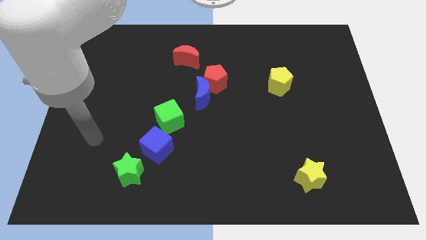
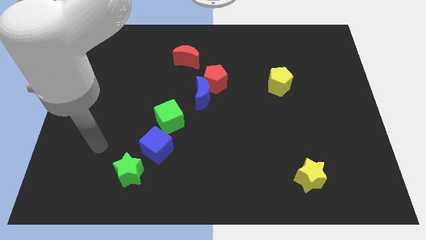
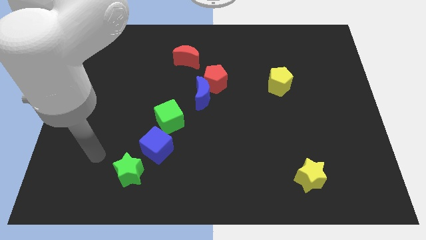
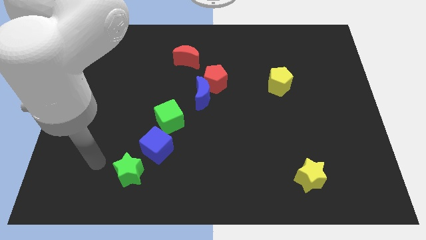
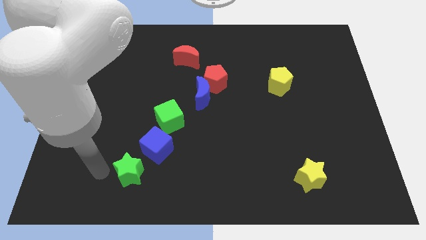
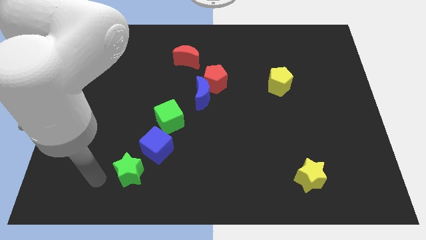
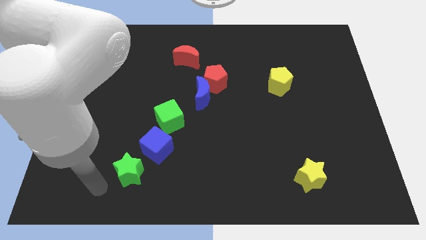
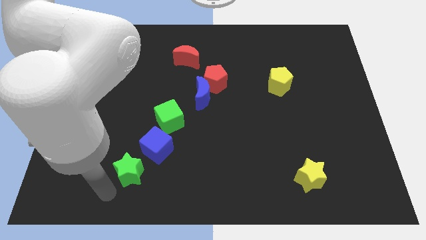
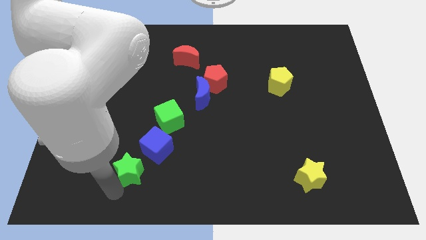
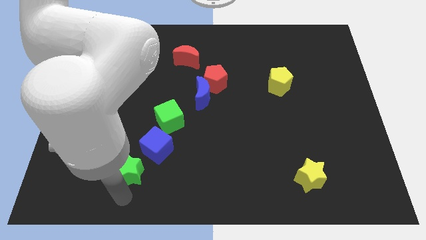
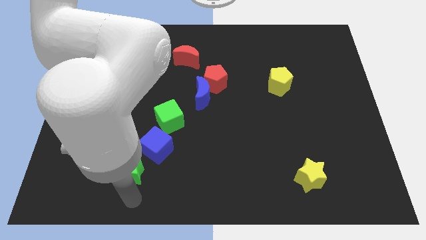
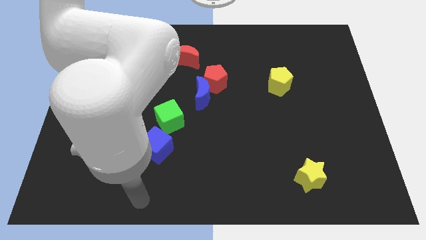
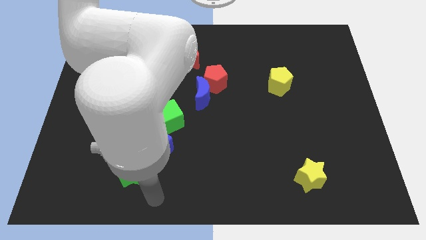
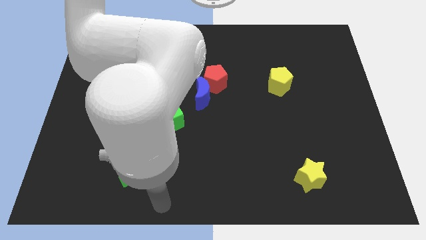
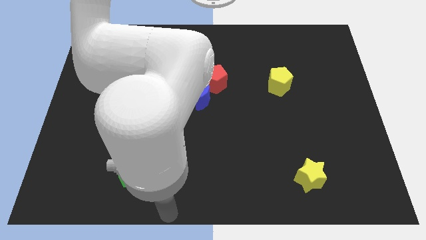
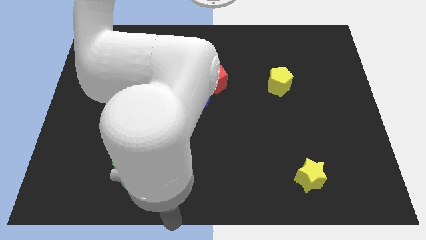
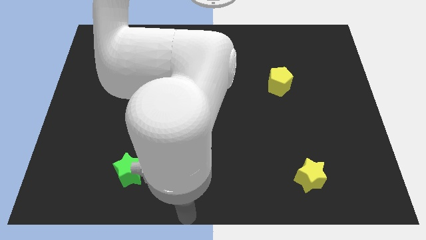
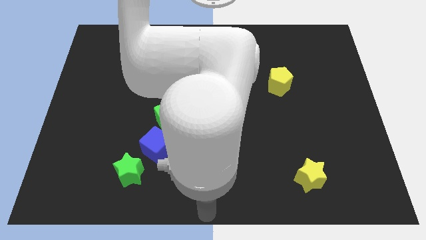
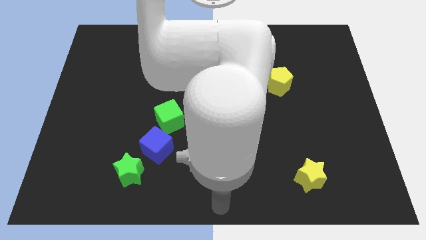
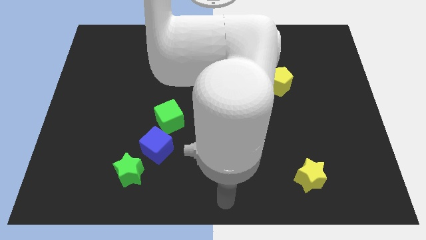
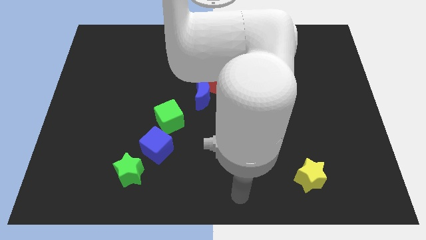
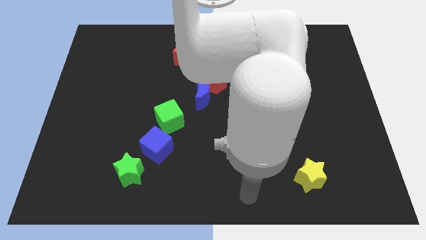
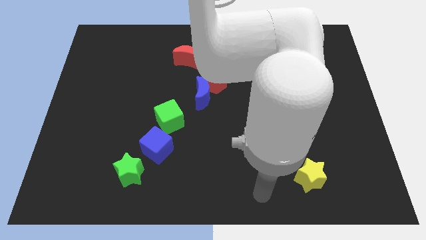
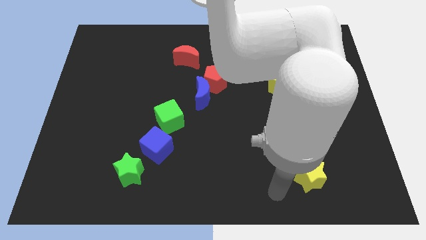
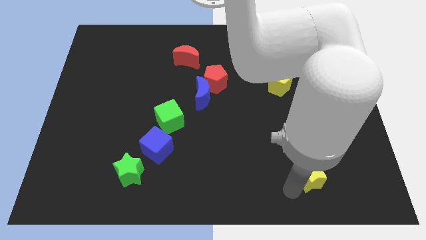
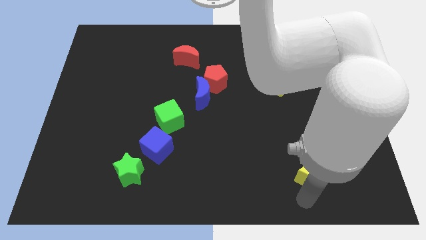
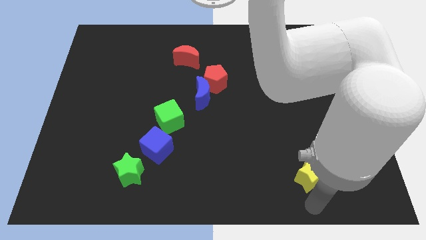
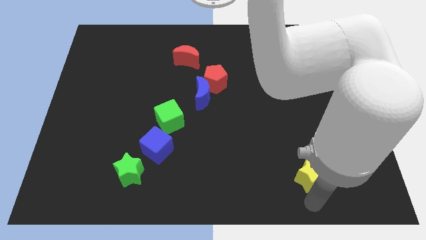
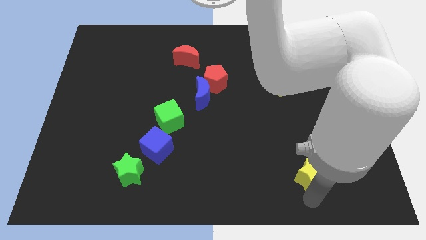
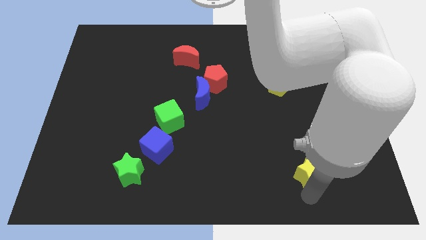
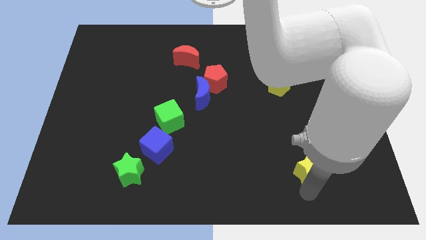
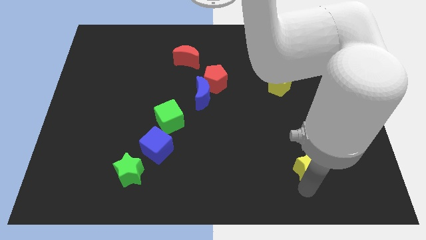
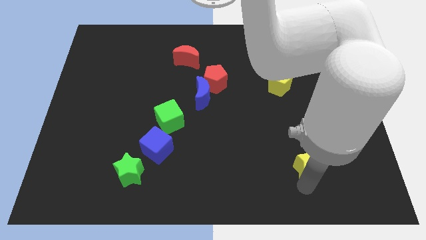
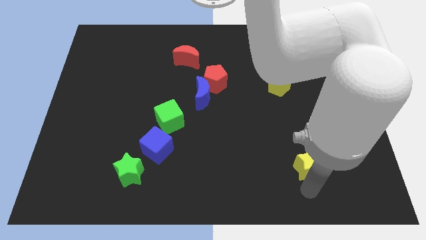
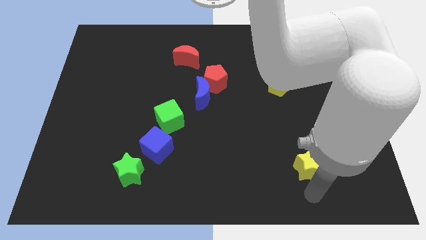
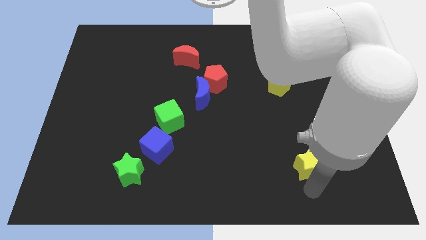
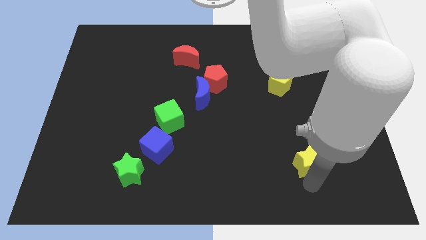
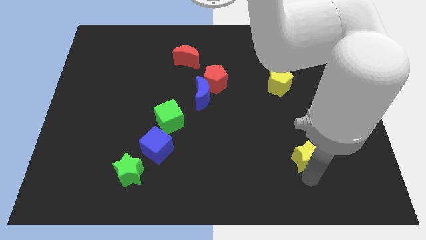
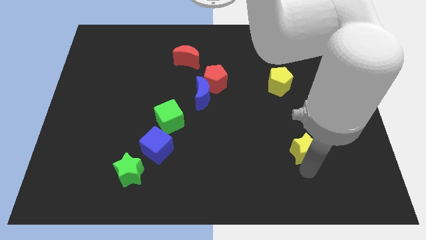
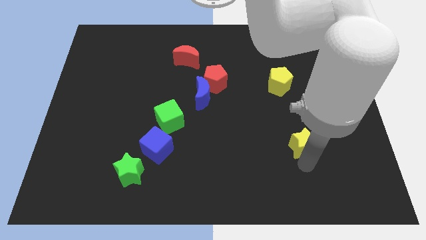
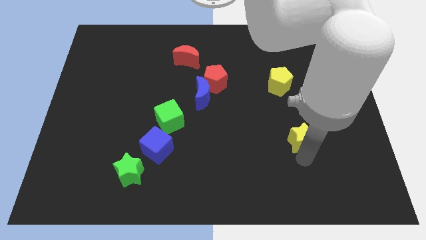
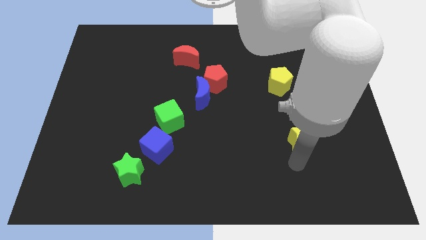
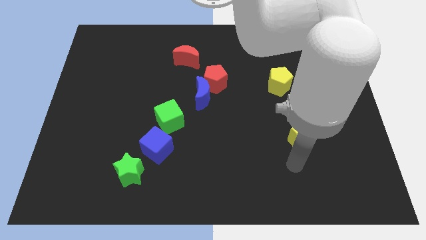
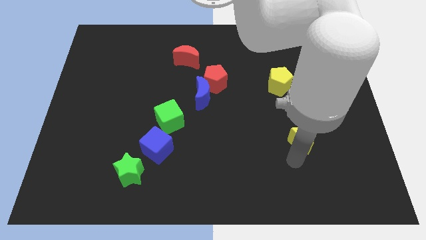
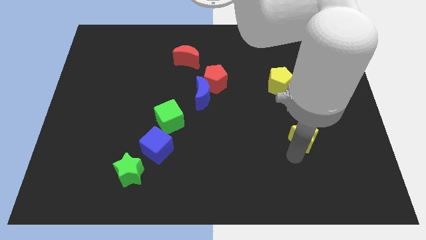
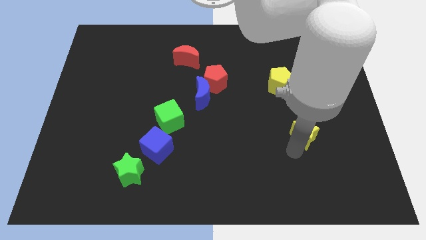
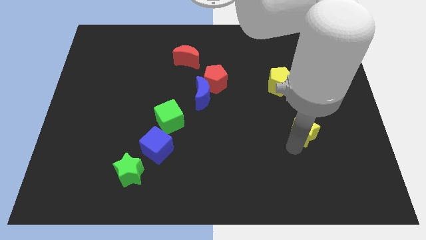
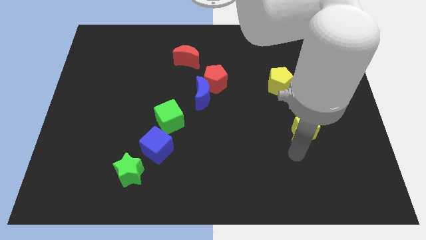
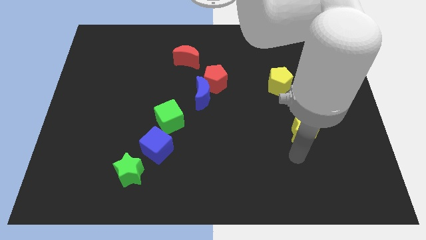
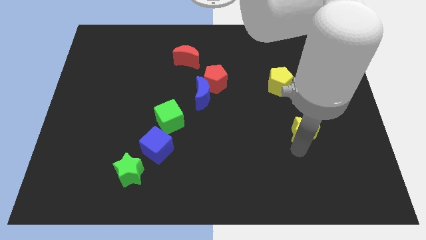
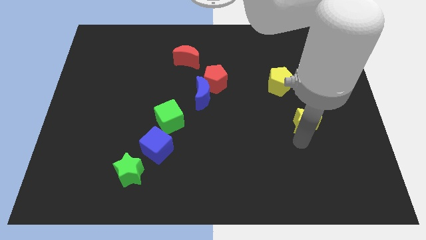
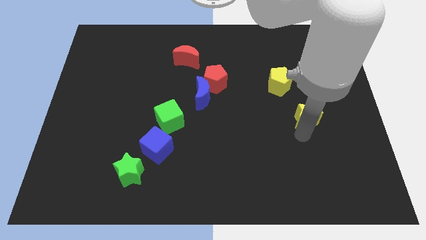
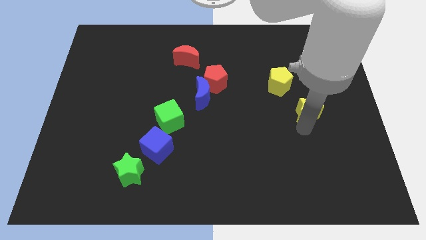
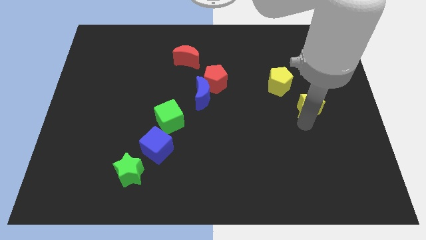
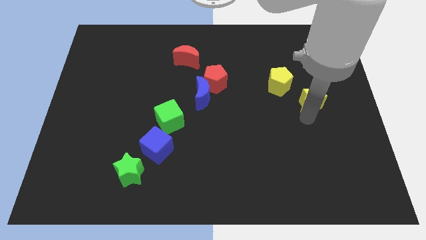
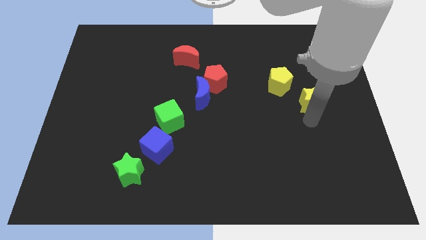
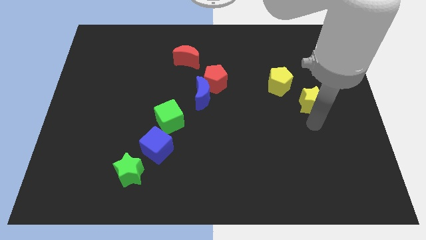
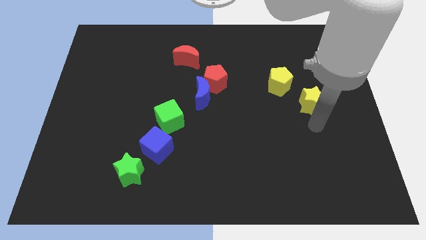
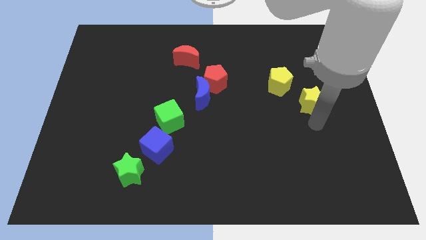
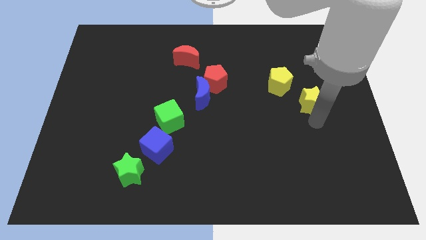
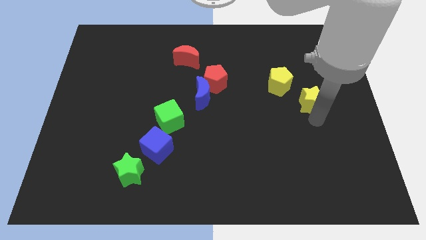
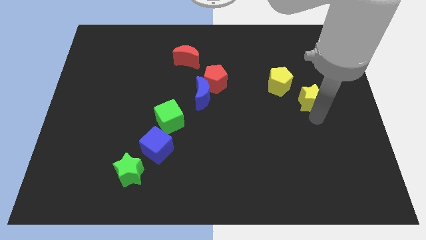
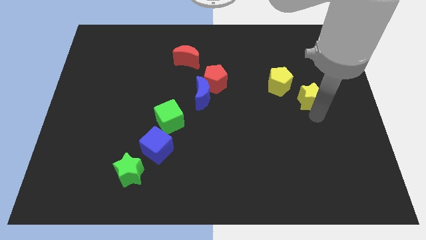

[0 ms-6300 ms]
slide the yellow star upwards

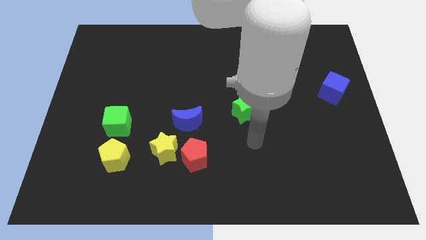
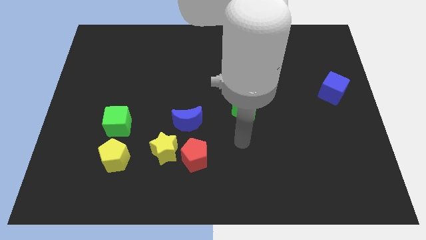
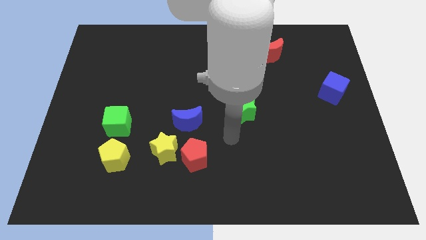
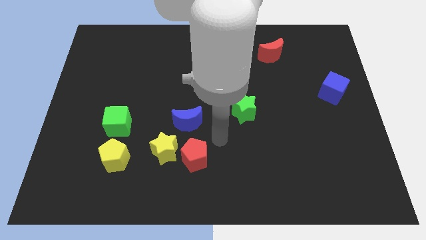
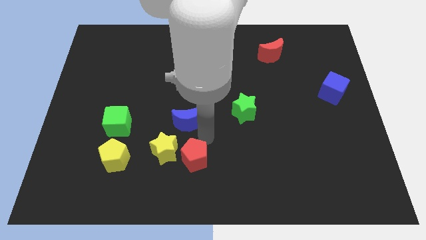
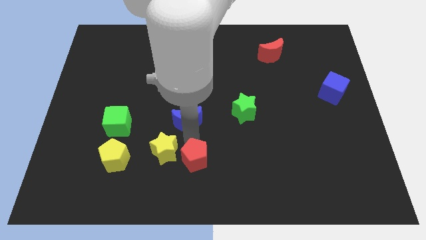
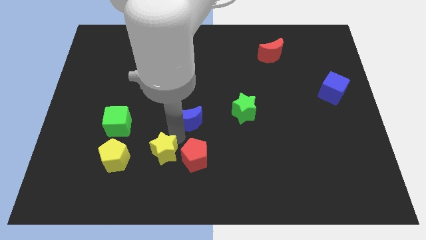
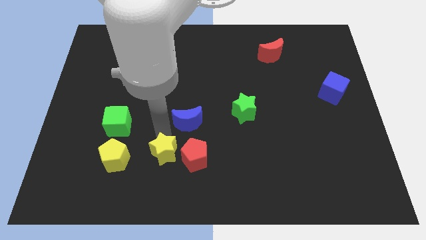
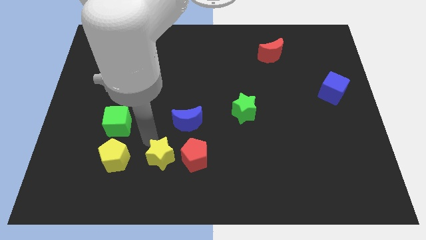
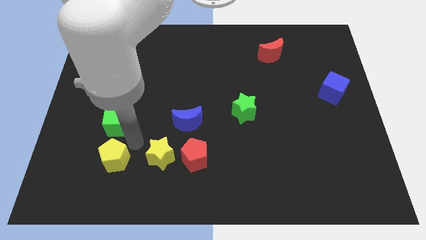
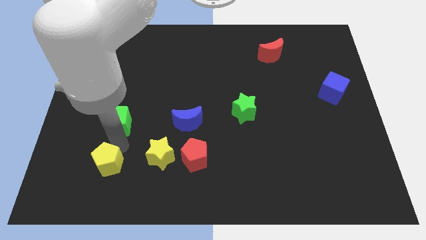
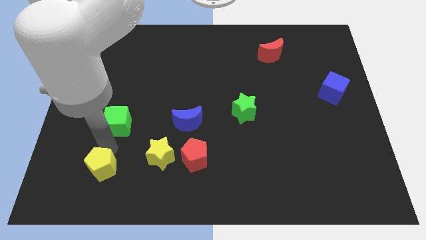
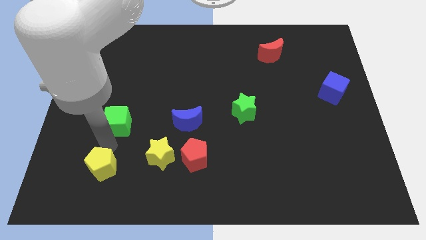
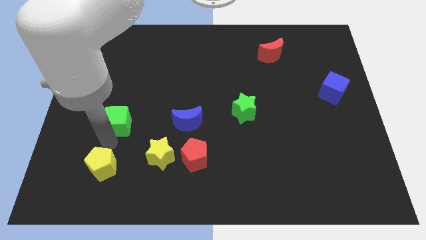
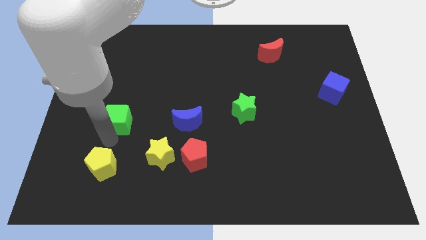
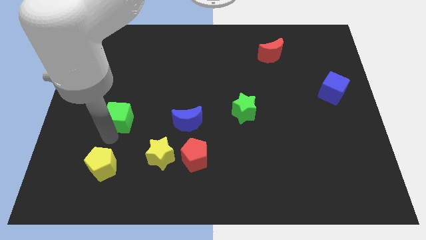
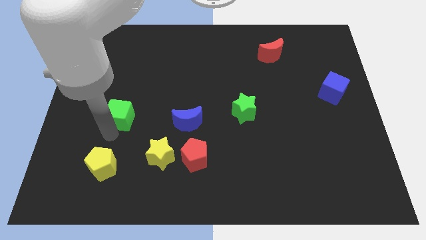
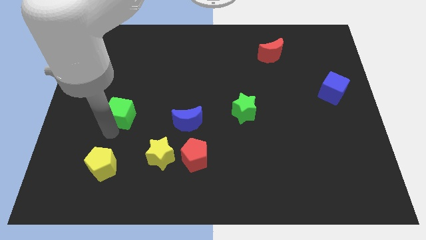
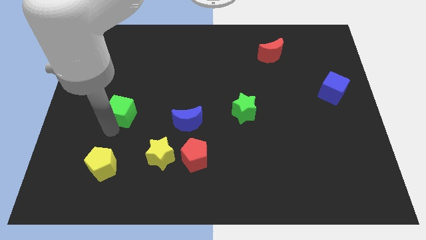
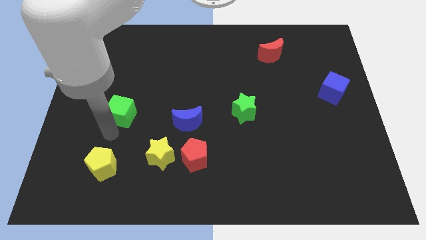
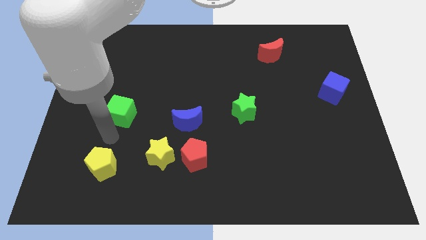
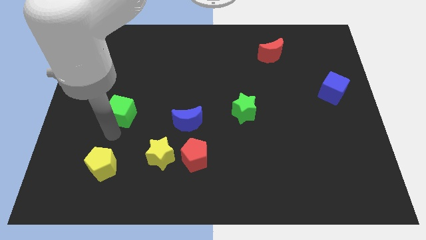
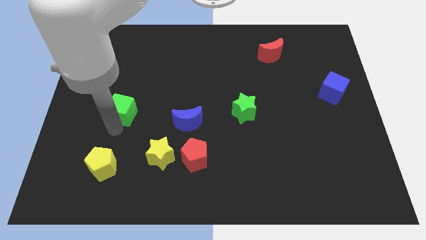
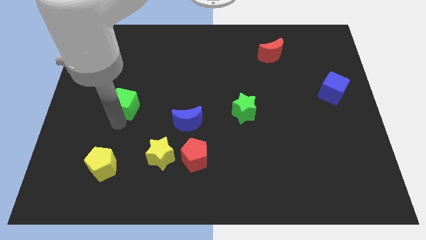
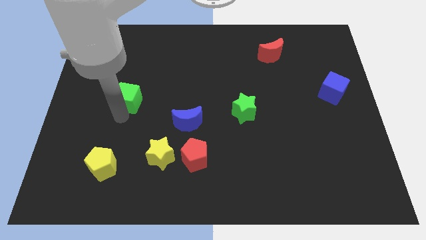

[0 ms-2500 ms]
move the green cube upwards a bit
